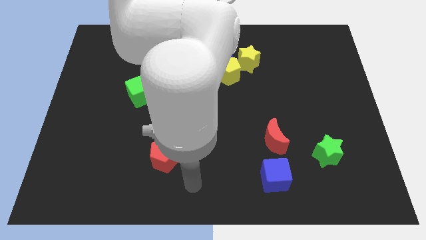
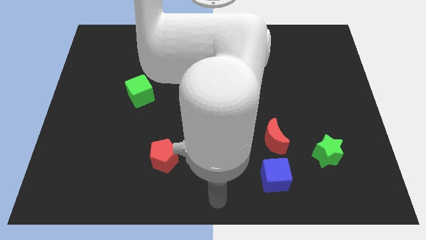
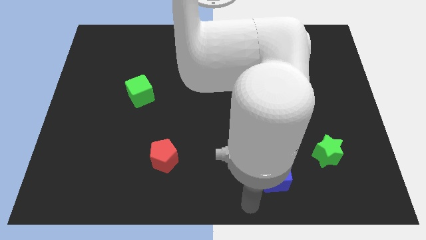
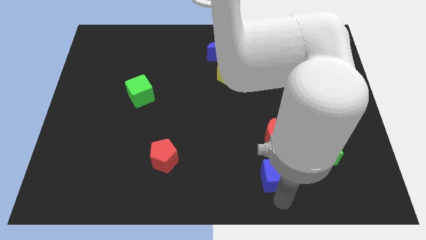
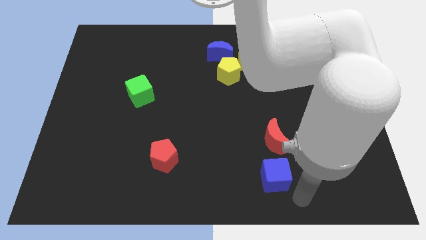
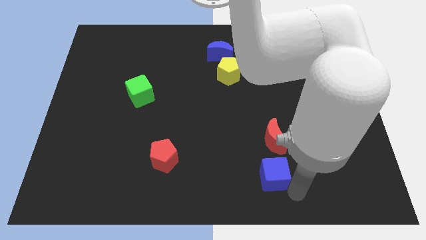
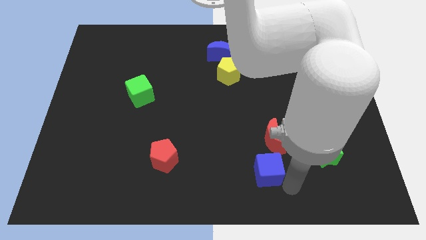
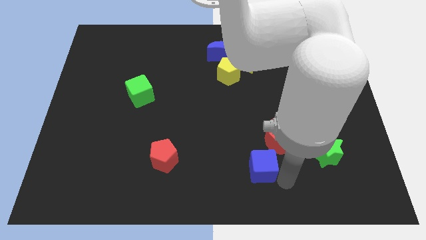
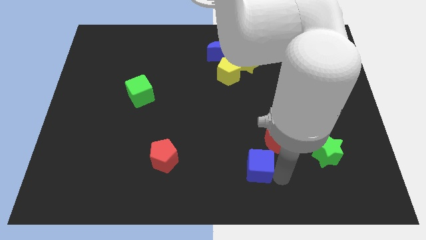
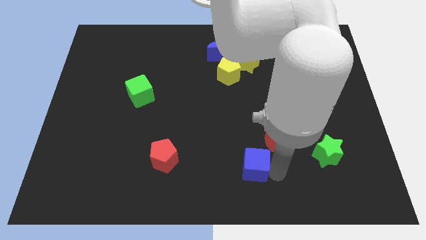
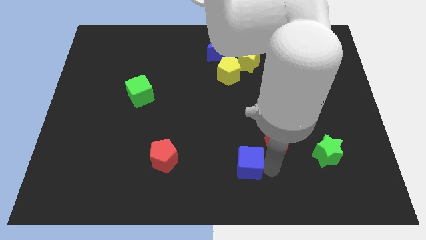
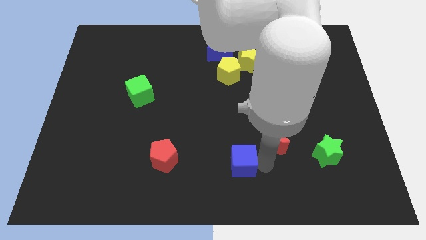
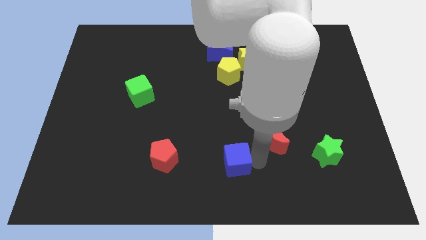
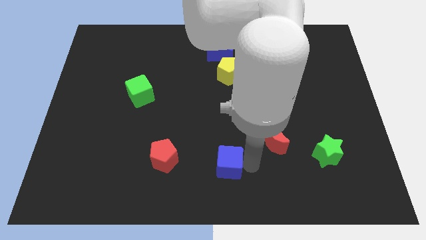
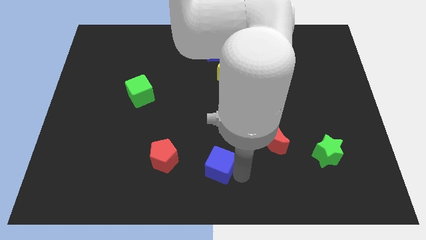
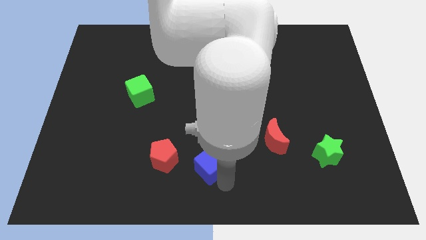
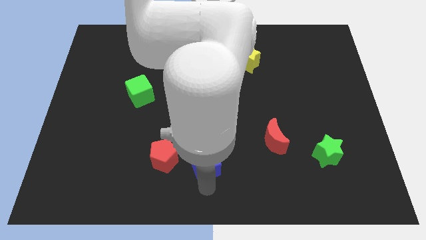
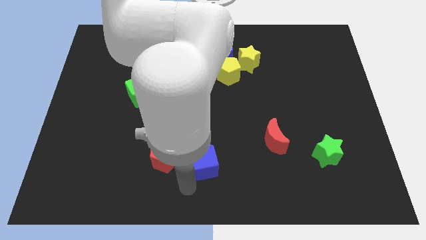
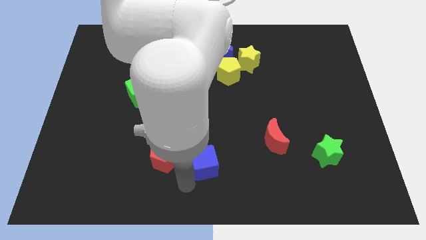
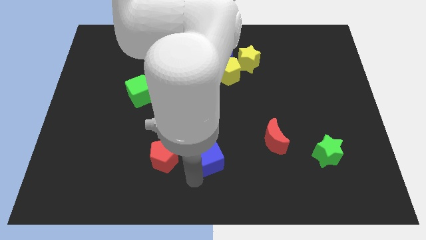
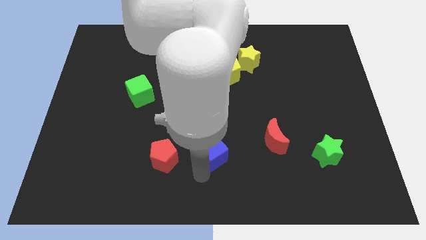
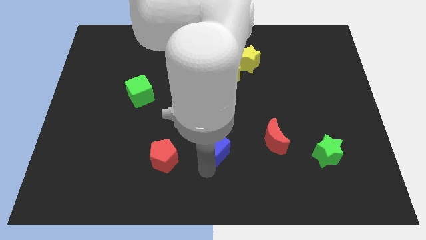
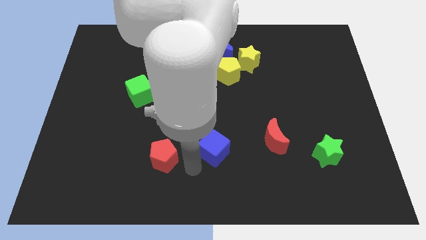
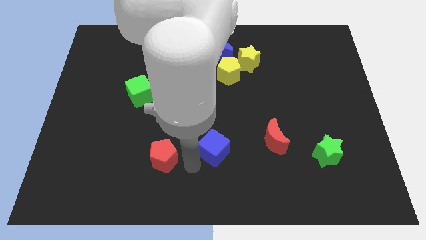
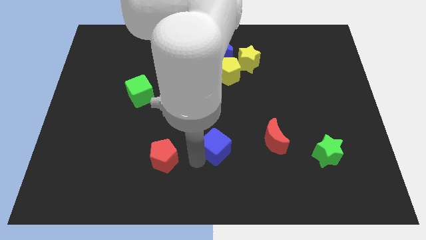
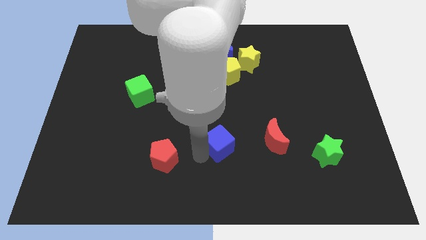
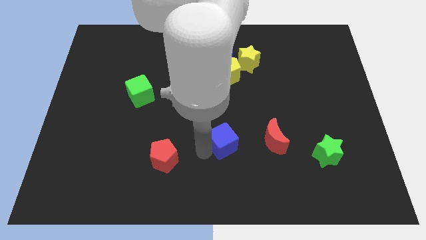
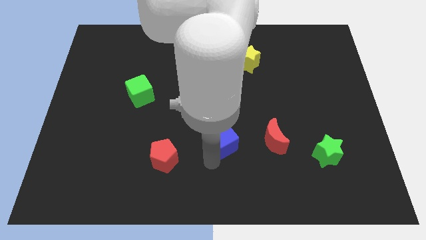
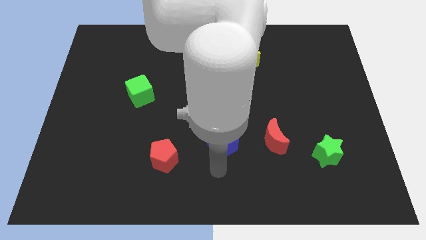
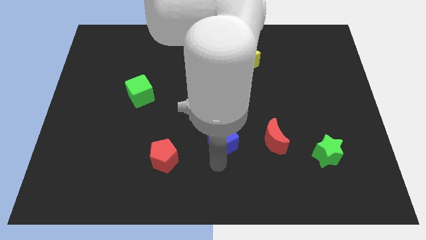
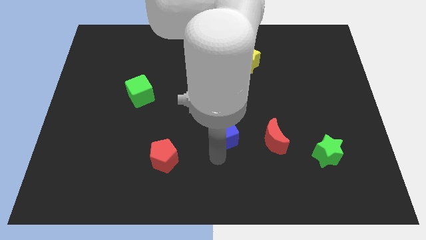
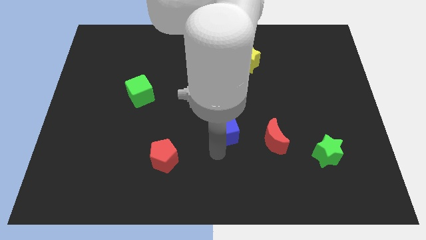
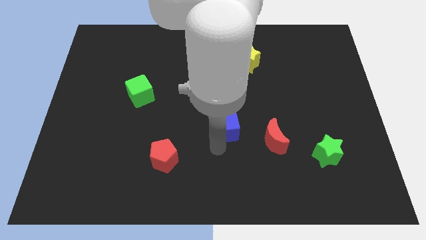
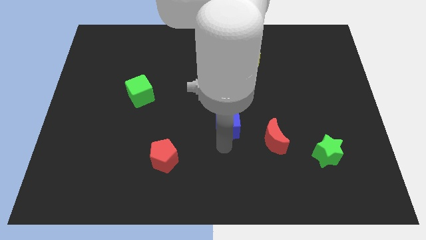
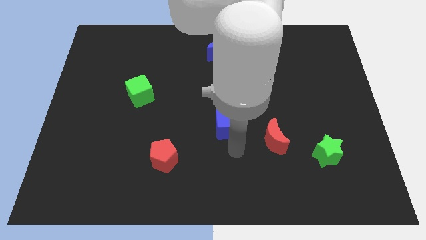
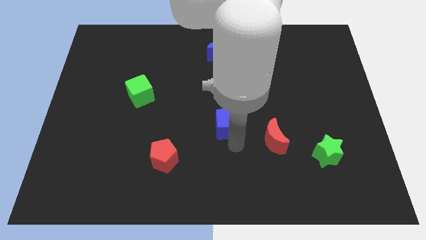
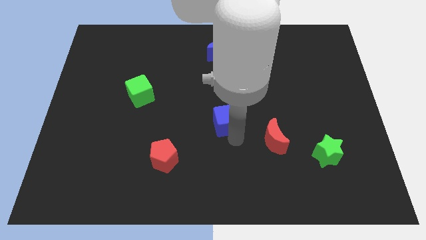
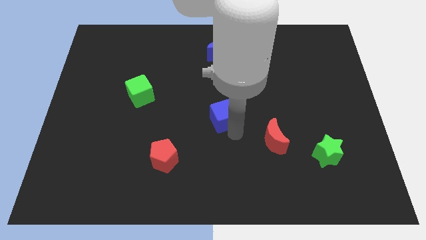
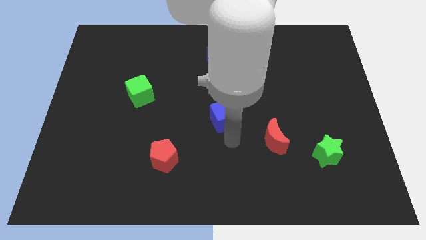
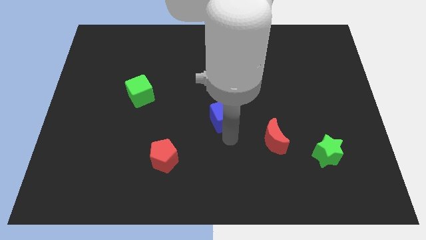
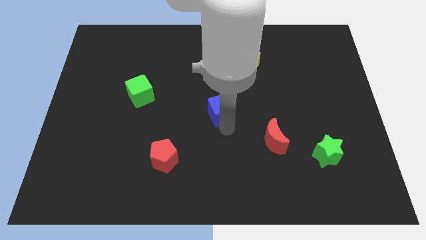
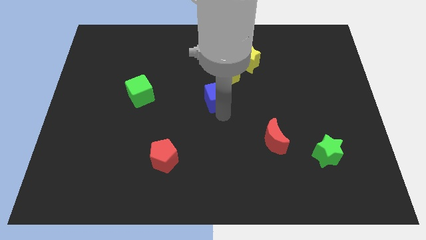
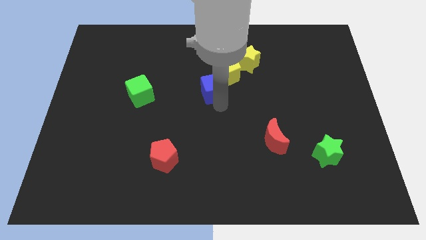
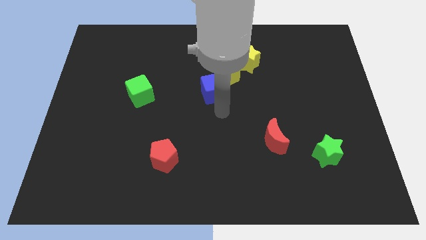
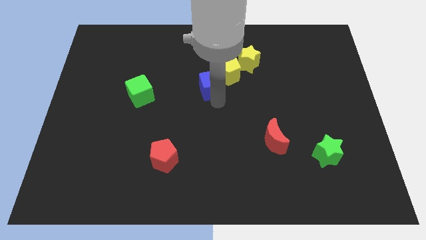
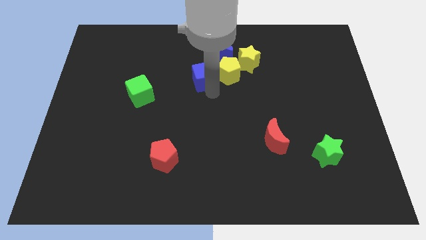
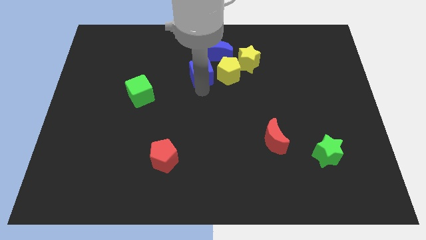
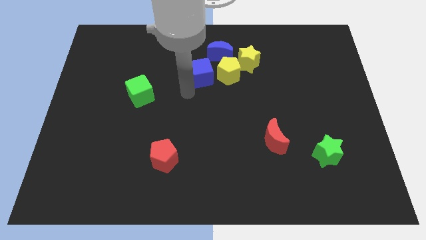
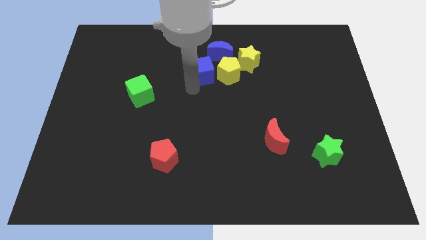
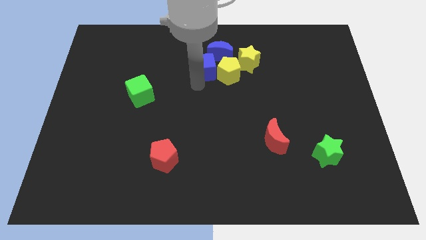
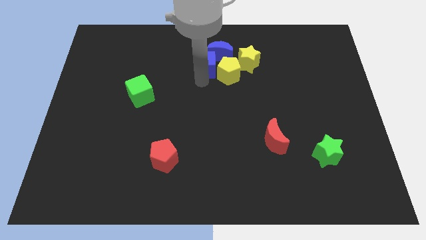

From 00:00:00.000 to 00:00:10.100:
move the blue cube close to the blue moon

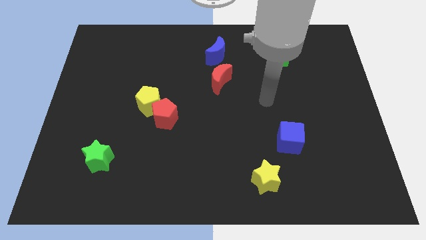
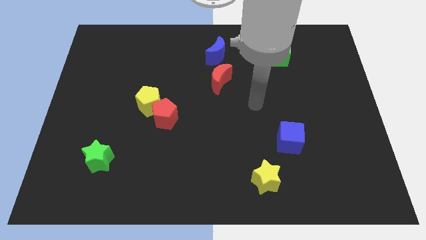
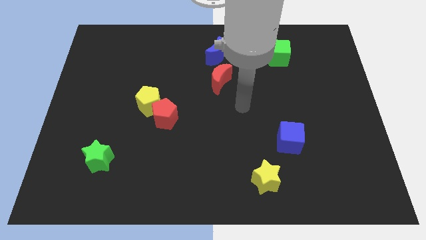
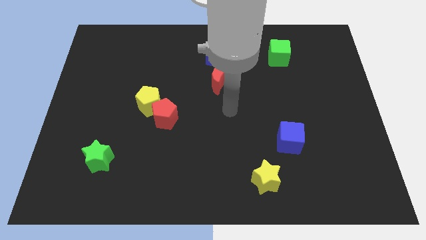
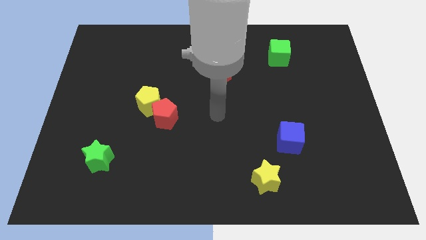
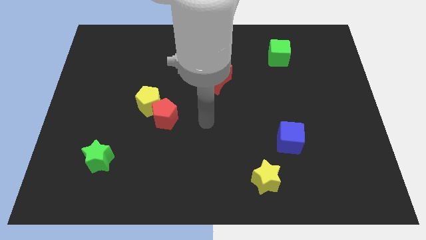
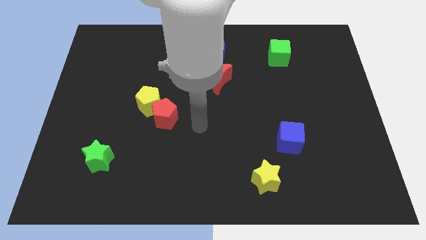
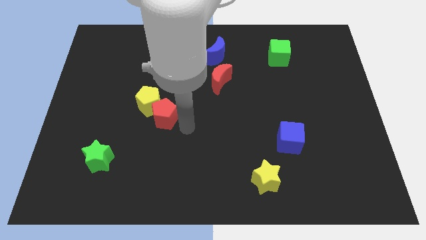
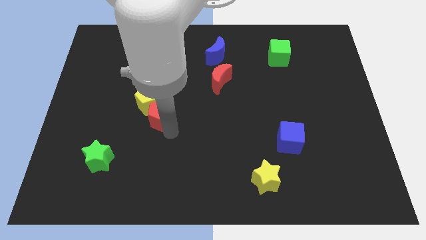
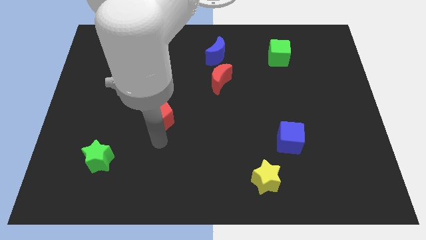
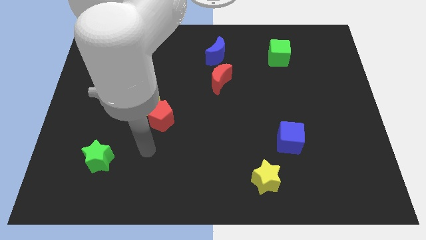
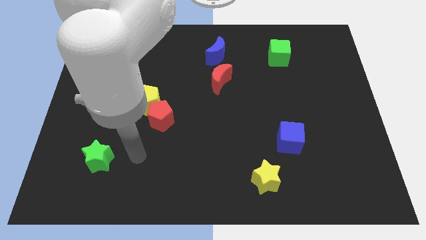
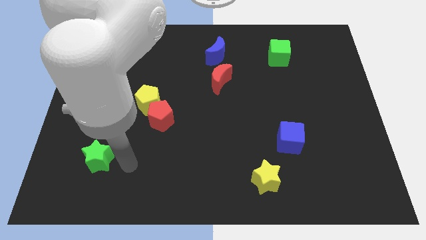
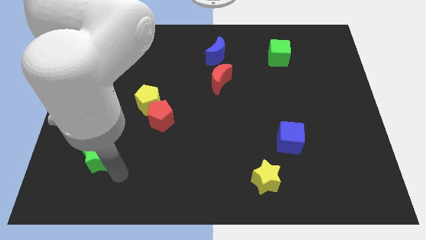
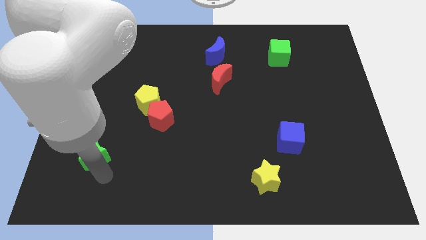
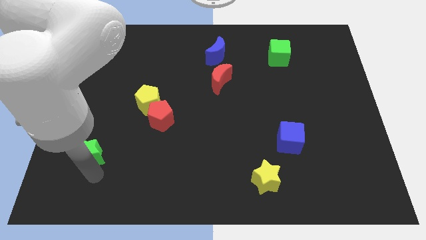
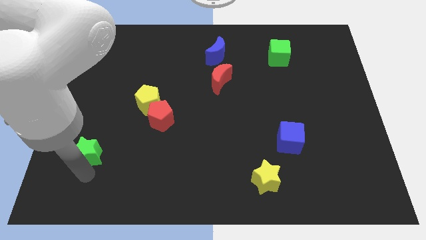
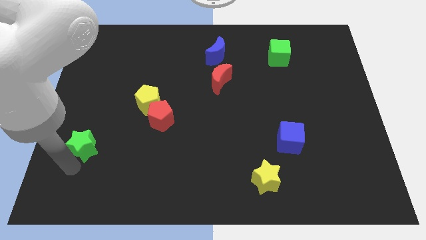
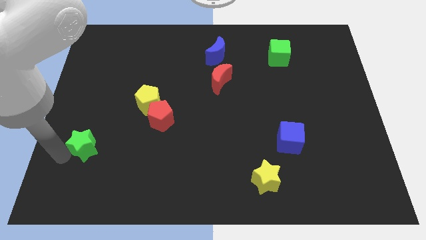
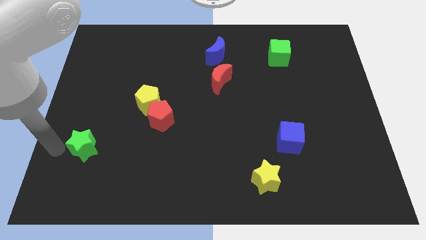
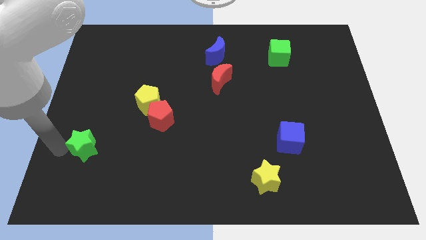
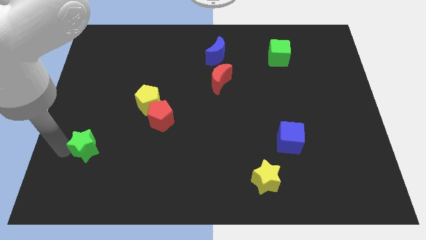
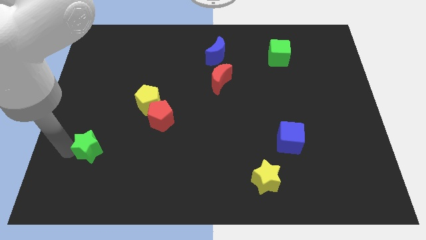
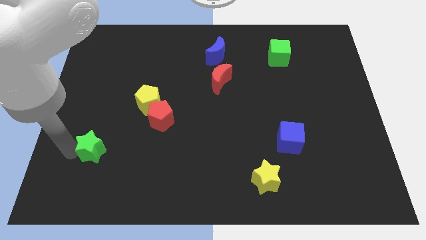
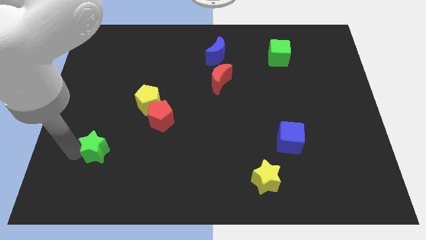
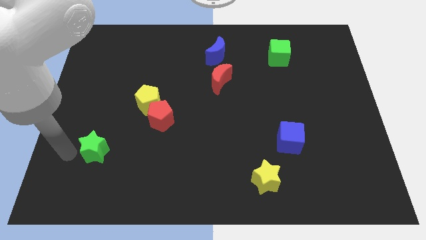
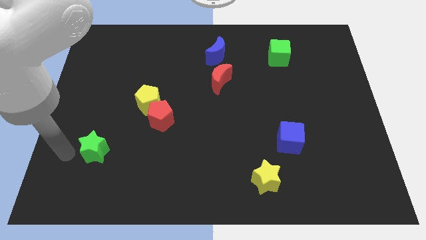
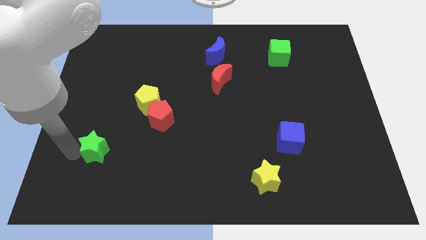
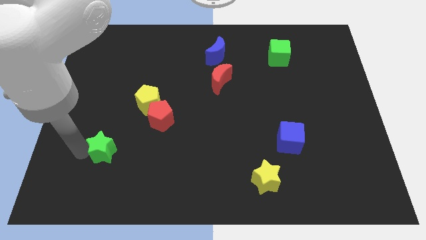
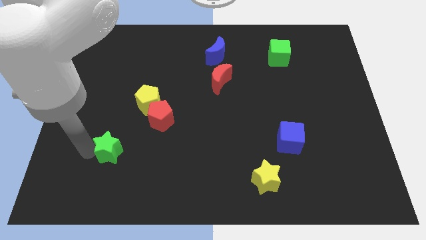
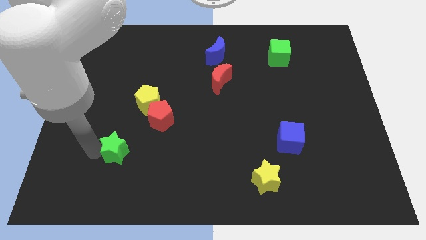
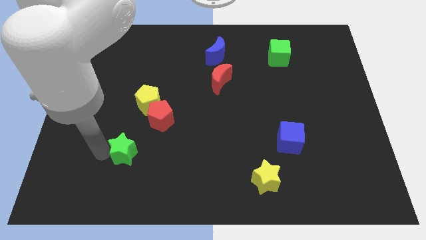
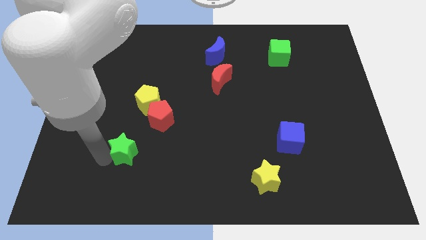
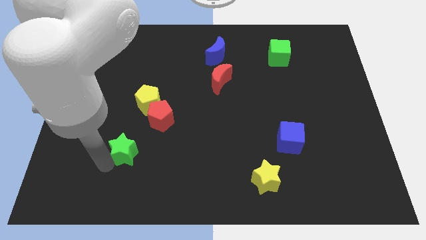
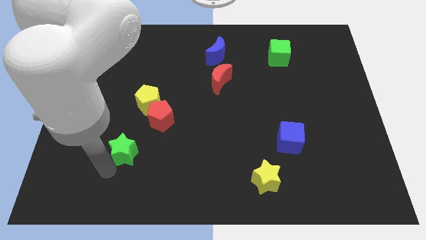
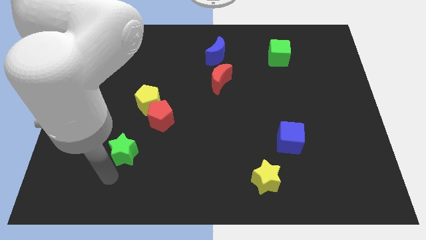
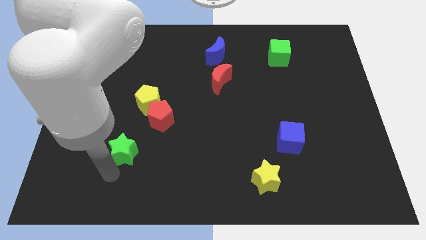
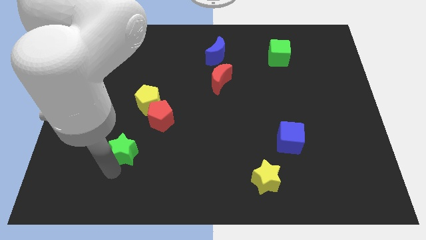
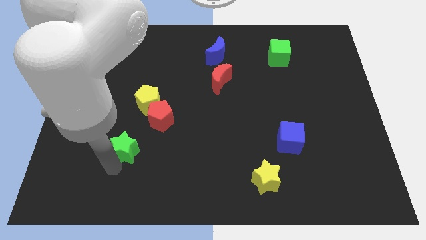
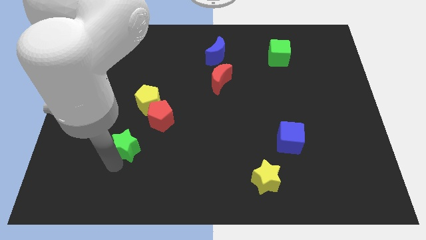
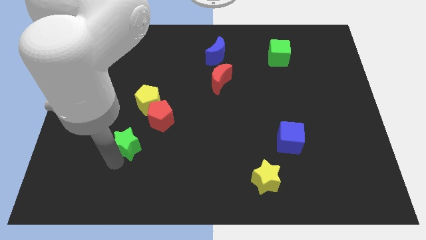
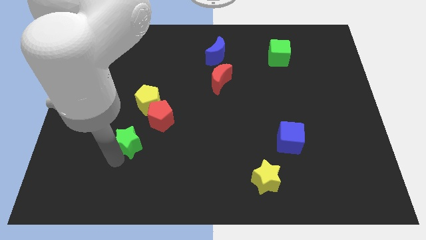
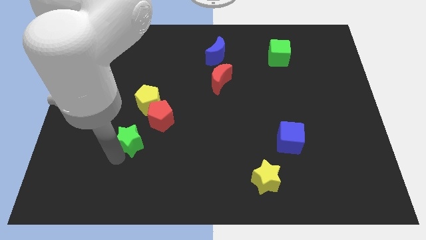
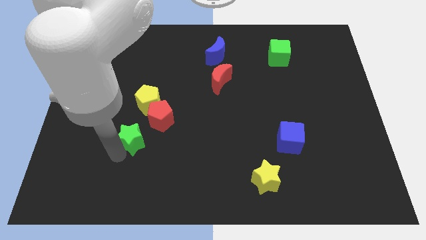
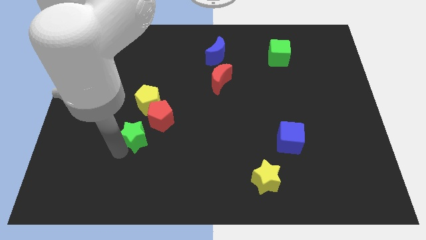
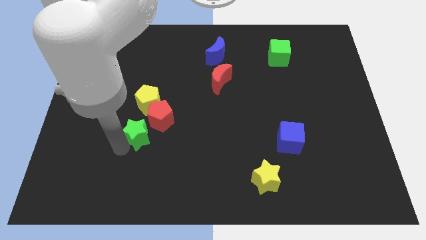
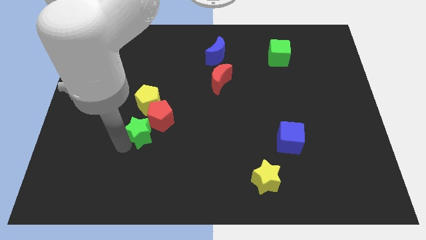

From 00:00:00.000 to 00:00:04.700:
slide the green star towards the red pentagon
